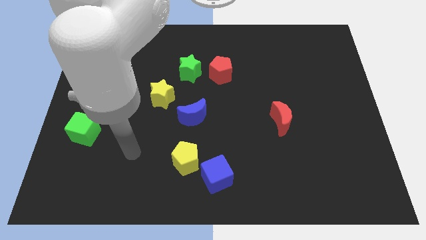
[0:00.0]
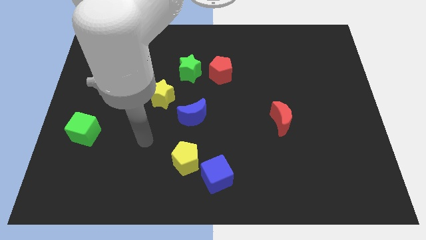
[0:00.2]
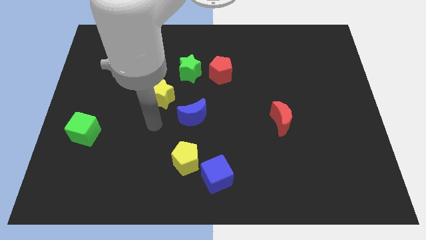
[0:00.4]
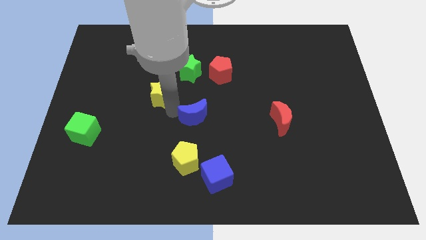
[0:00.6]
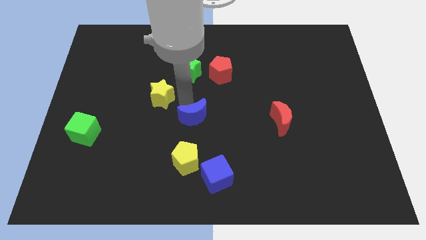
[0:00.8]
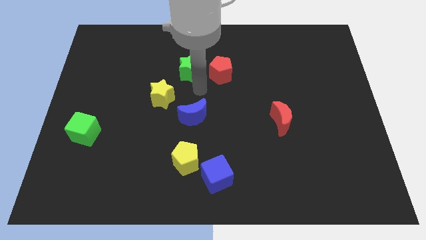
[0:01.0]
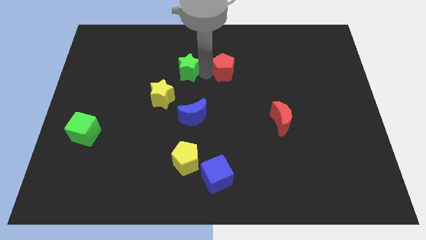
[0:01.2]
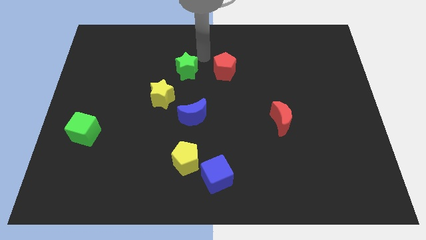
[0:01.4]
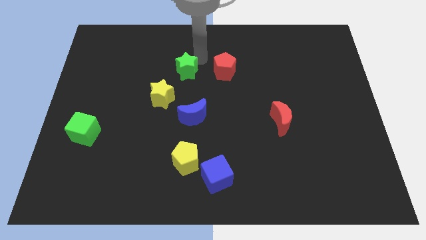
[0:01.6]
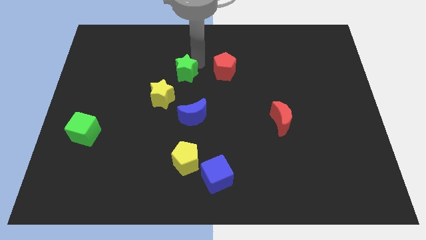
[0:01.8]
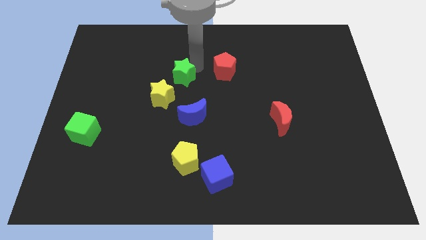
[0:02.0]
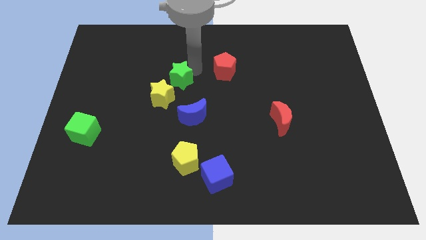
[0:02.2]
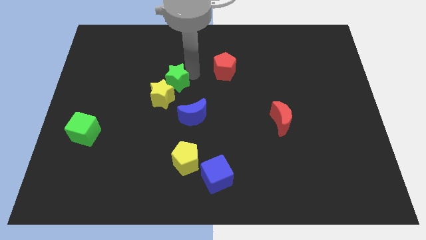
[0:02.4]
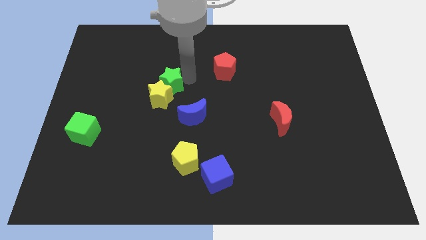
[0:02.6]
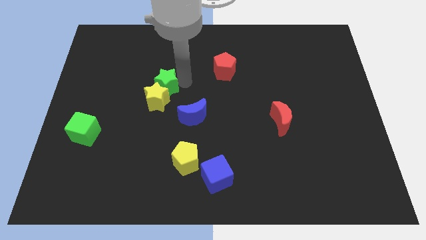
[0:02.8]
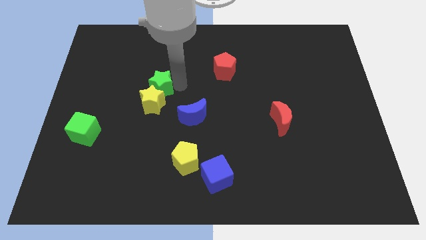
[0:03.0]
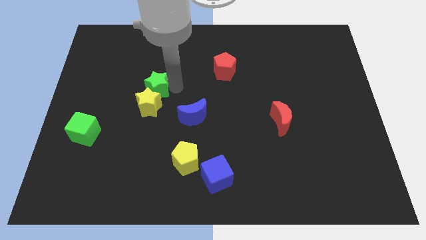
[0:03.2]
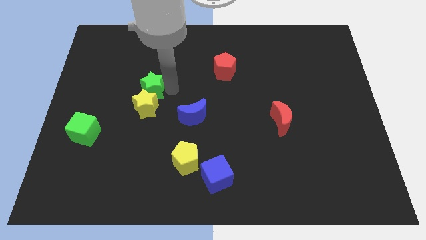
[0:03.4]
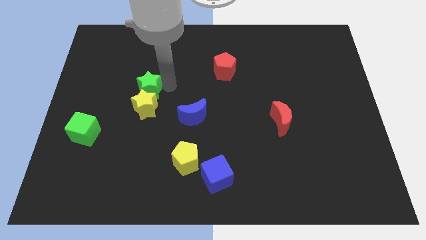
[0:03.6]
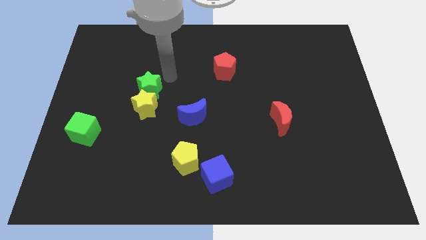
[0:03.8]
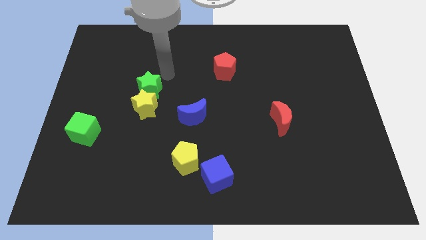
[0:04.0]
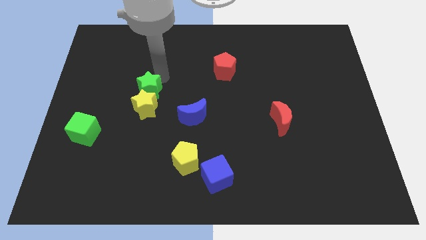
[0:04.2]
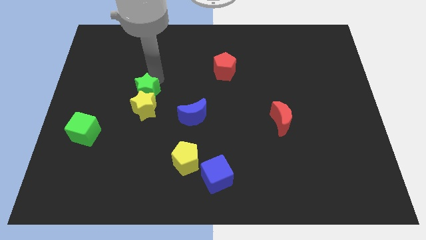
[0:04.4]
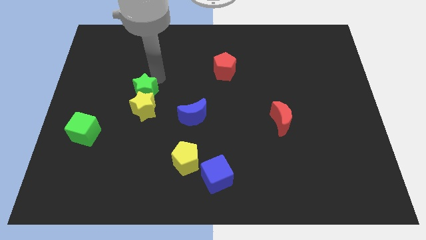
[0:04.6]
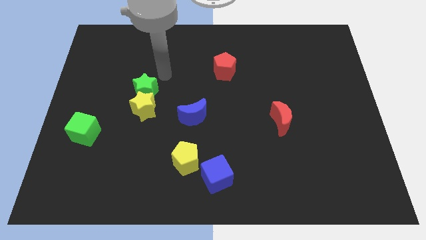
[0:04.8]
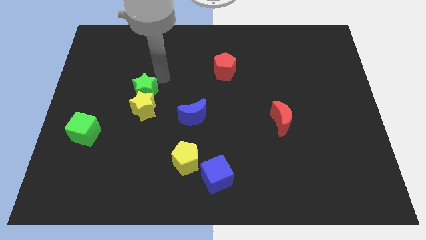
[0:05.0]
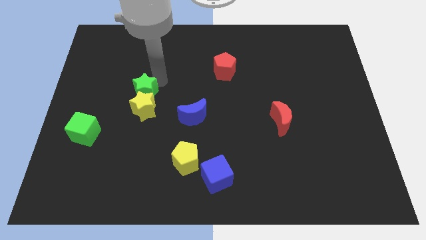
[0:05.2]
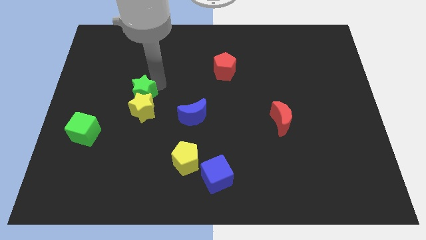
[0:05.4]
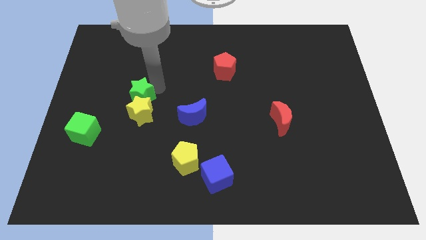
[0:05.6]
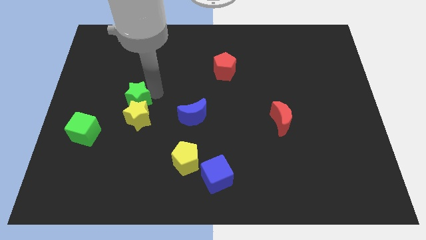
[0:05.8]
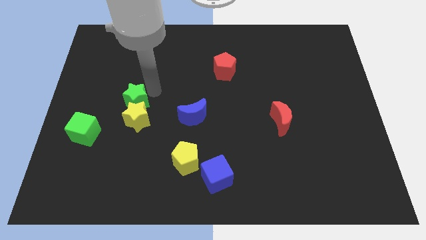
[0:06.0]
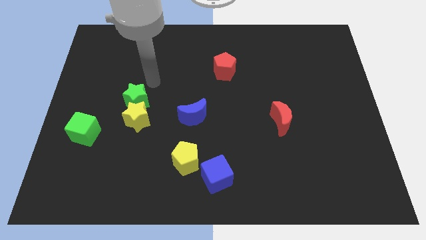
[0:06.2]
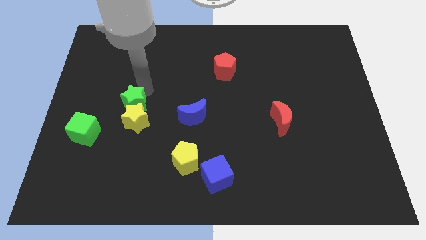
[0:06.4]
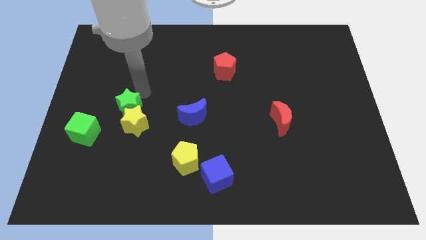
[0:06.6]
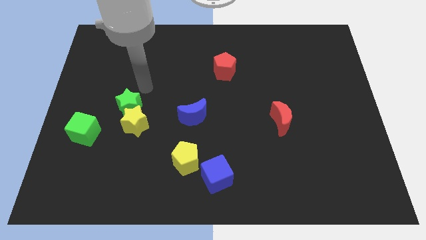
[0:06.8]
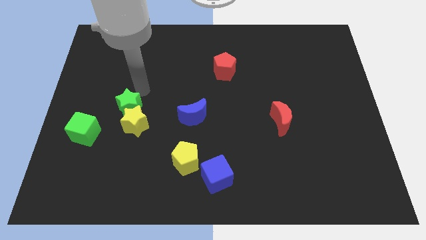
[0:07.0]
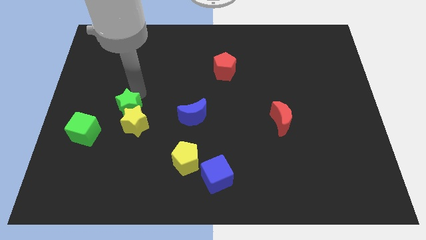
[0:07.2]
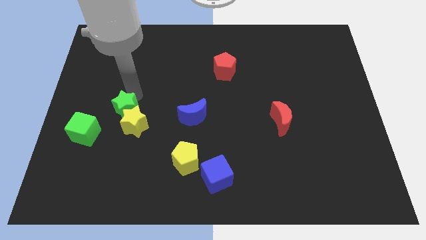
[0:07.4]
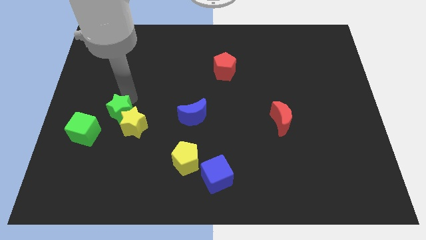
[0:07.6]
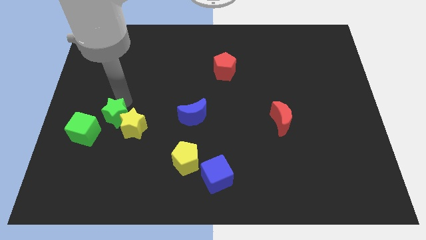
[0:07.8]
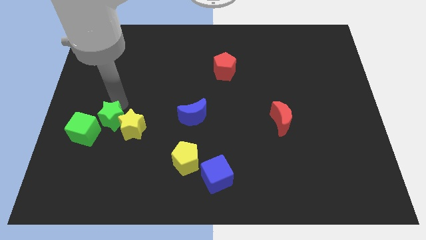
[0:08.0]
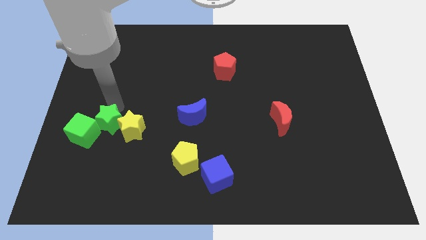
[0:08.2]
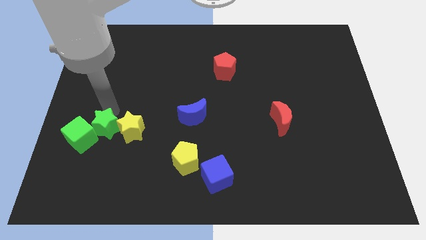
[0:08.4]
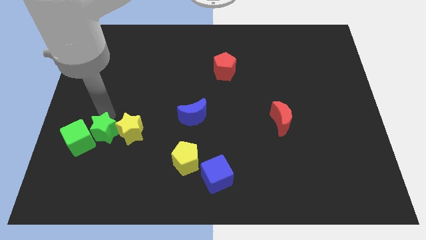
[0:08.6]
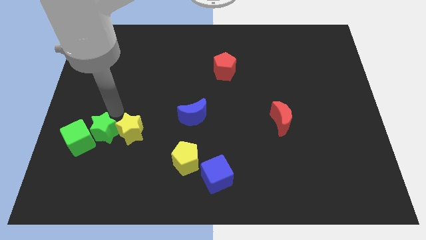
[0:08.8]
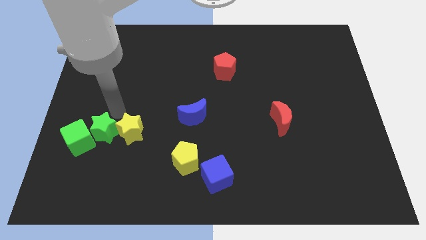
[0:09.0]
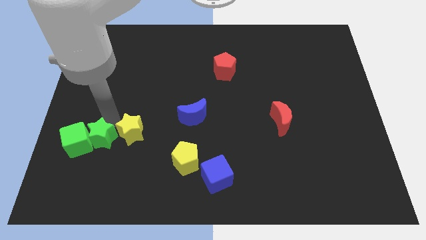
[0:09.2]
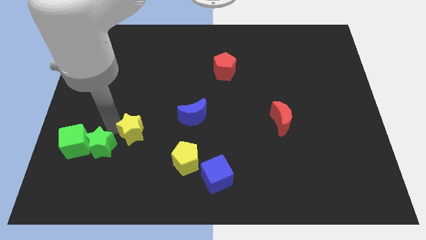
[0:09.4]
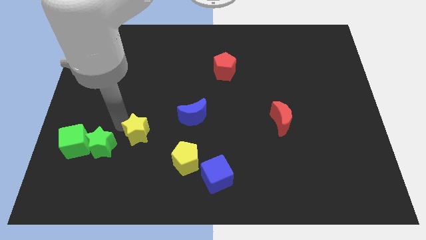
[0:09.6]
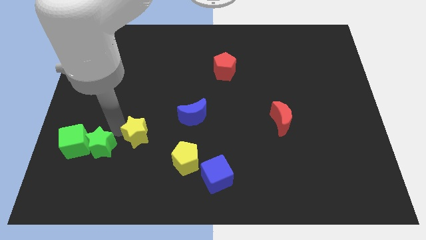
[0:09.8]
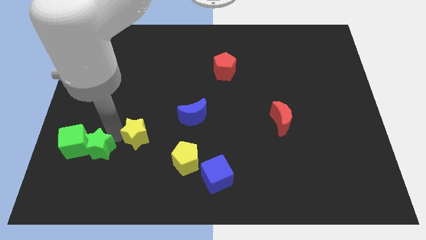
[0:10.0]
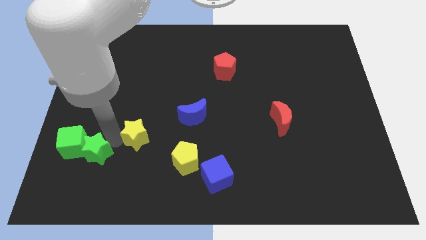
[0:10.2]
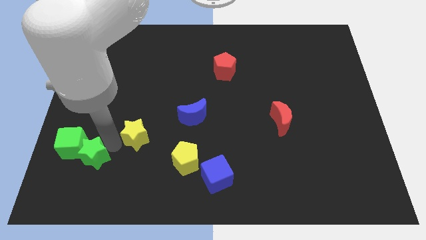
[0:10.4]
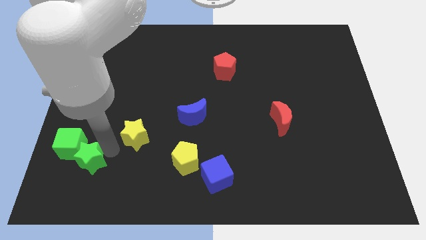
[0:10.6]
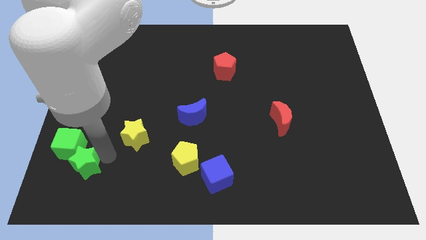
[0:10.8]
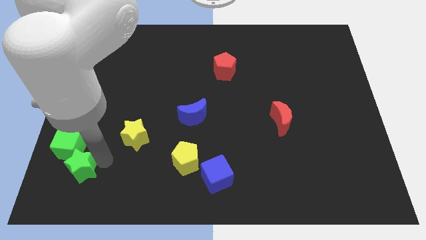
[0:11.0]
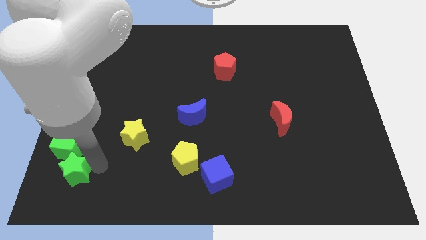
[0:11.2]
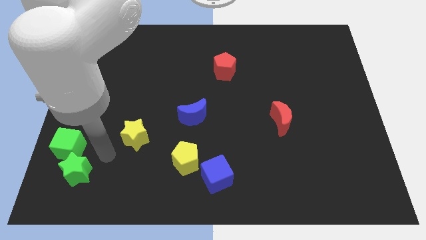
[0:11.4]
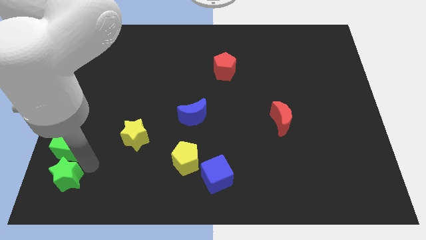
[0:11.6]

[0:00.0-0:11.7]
slide the green star to the bottom left corner
